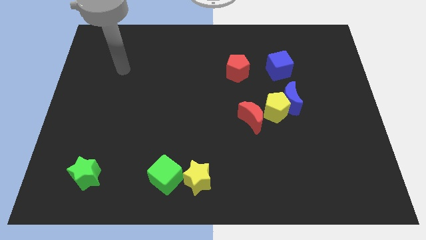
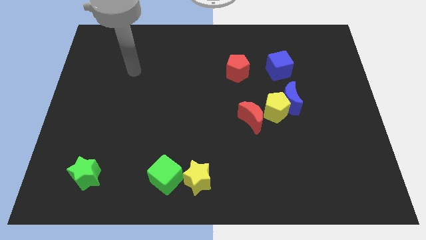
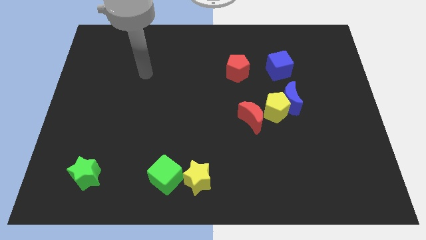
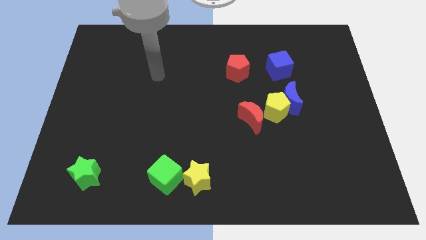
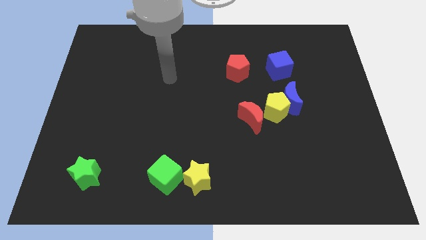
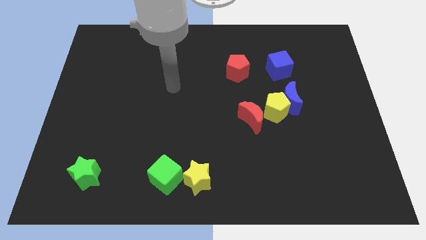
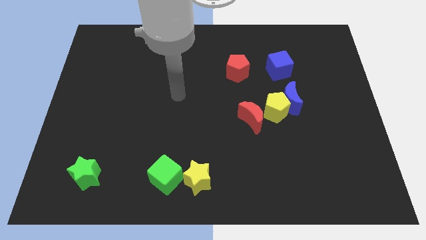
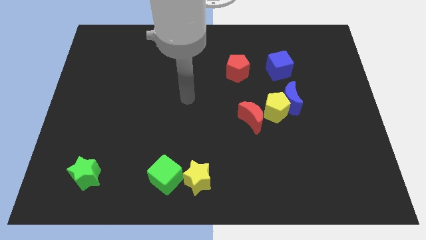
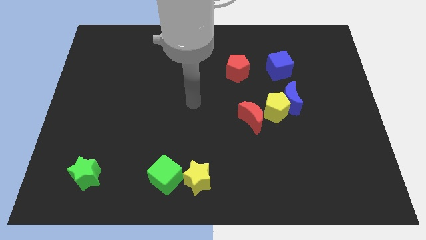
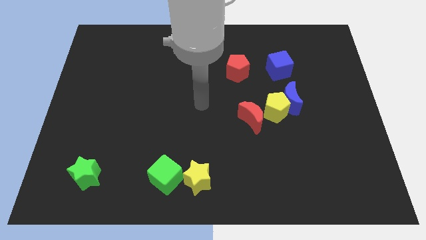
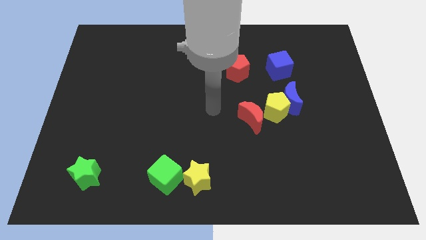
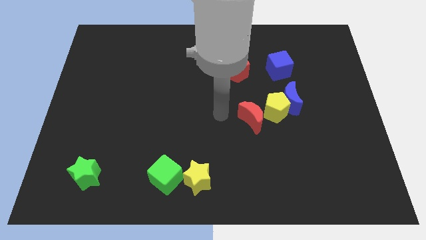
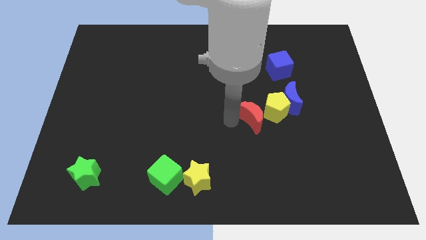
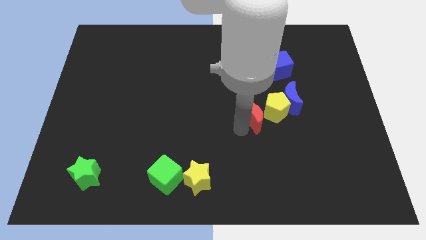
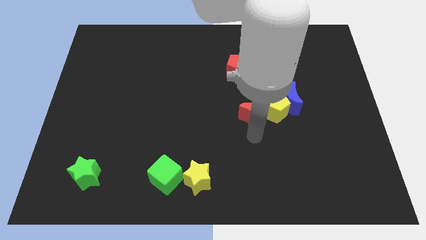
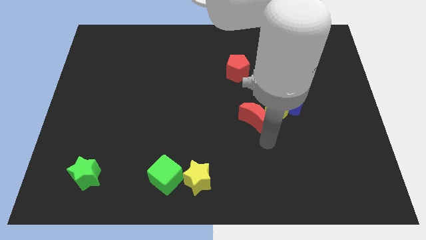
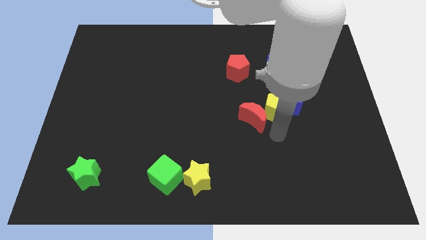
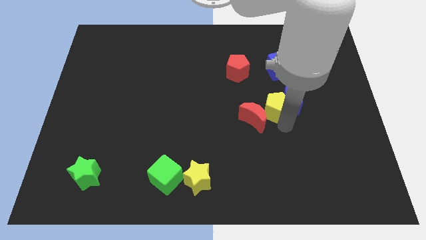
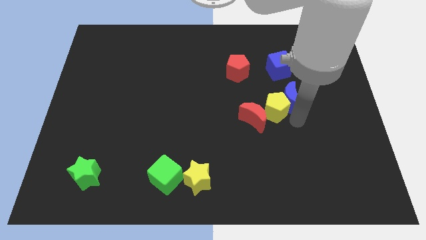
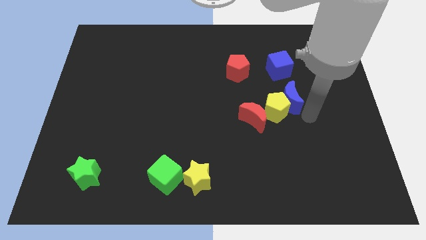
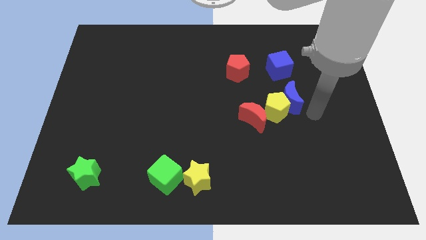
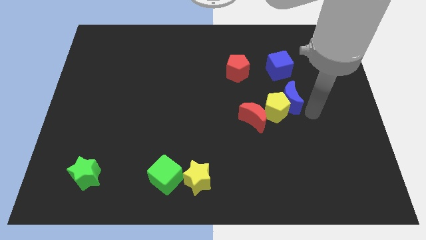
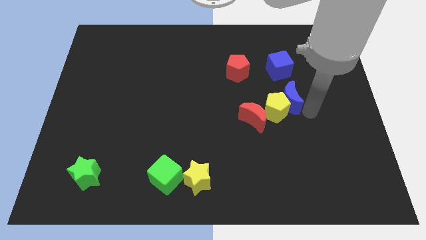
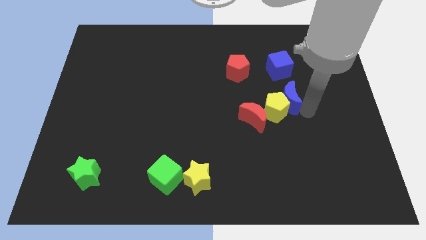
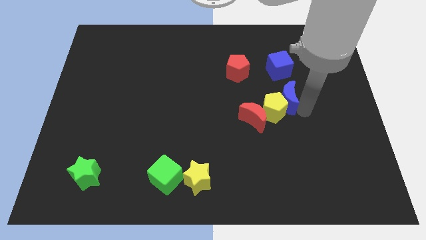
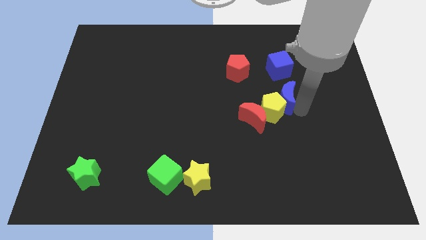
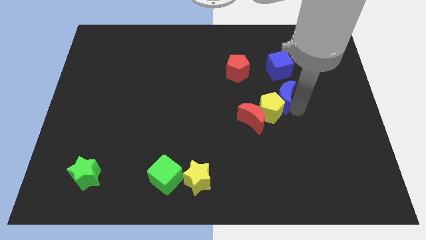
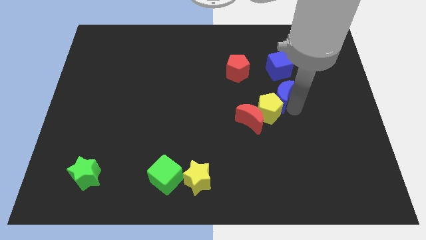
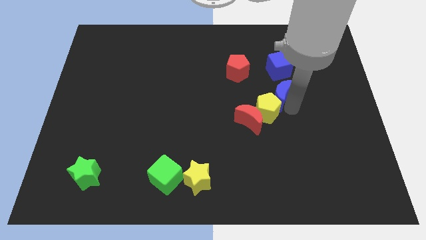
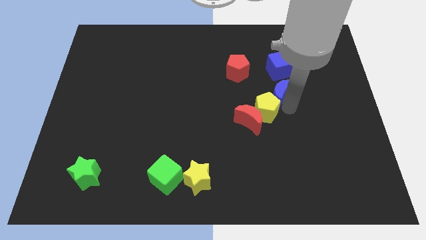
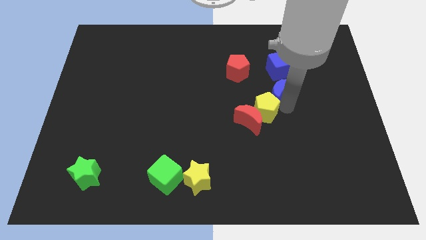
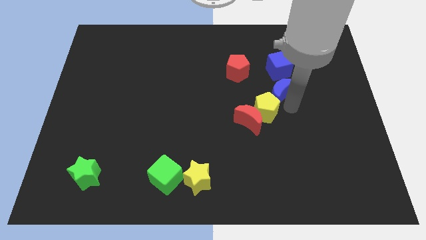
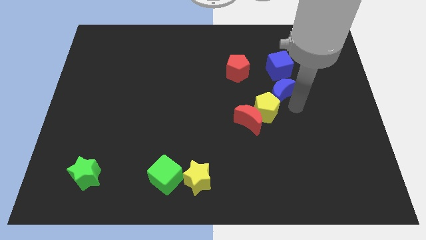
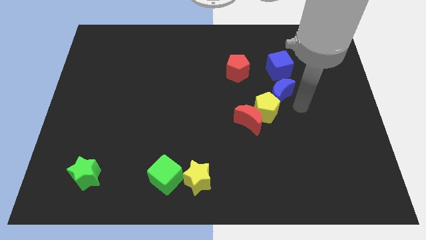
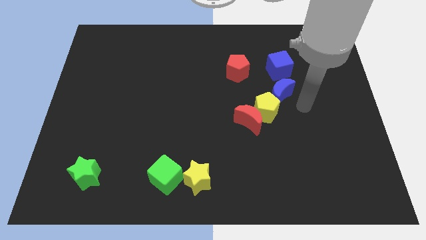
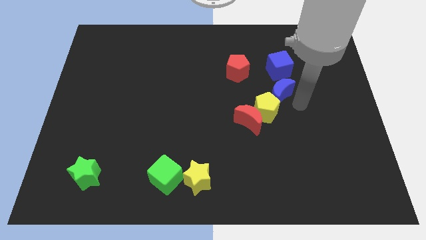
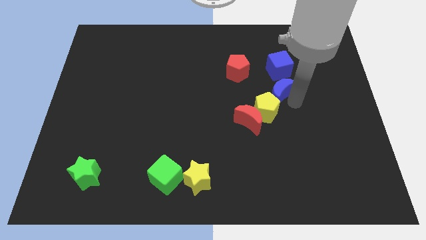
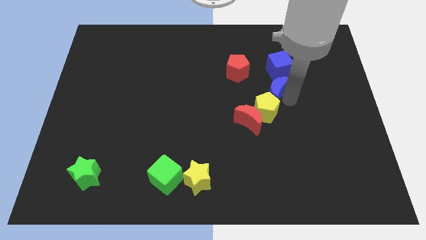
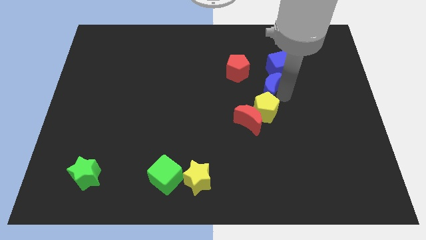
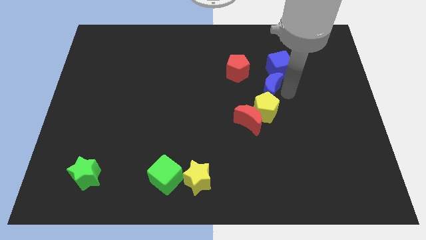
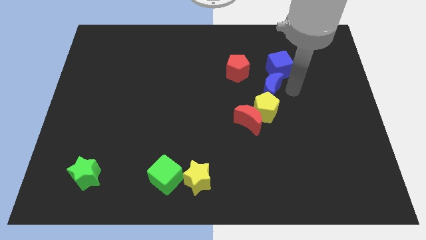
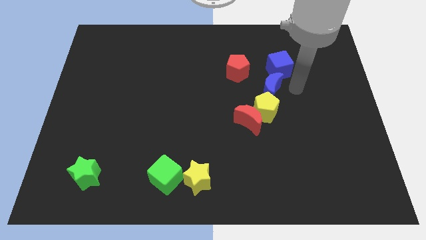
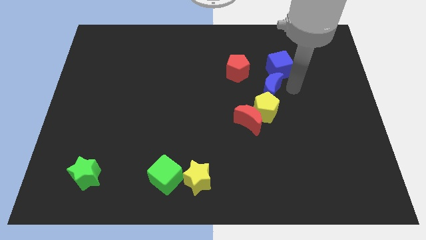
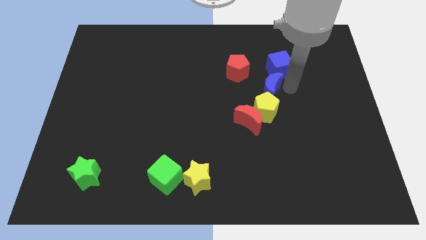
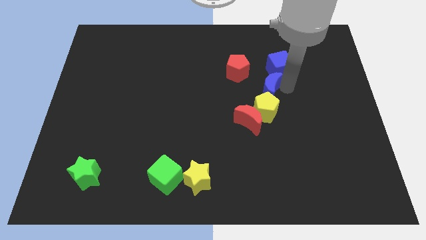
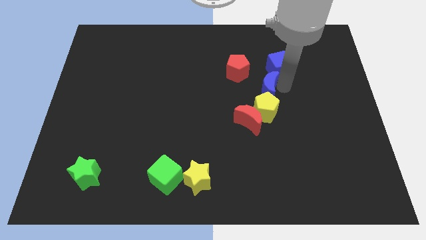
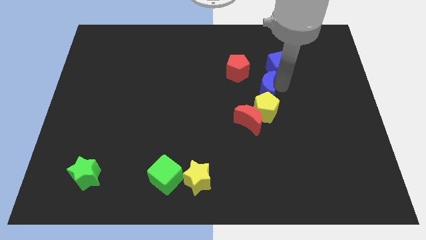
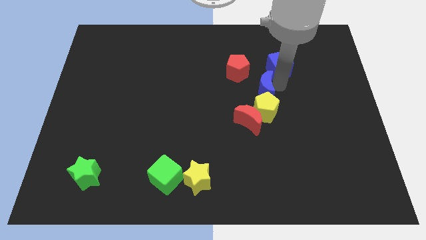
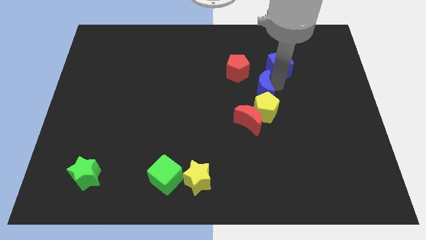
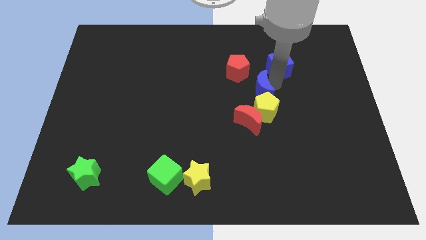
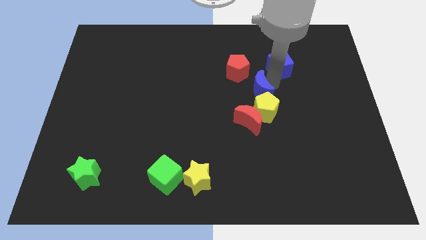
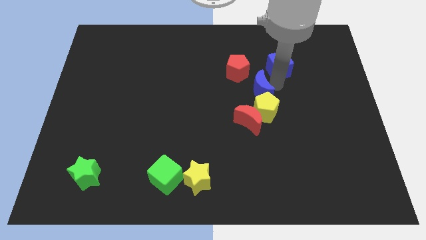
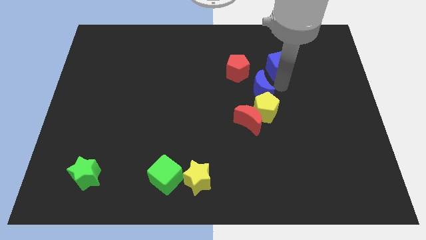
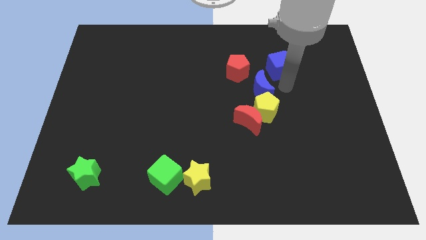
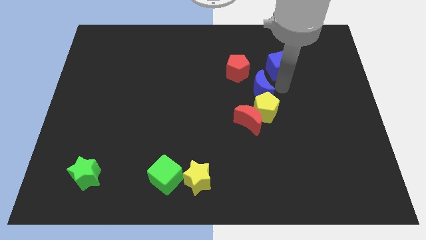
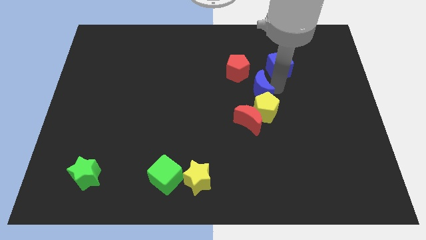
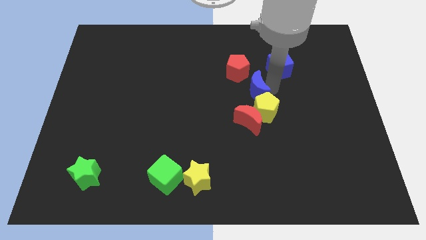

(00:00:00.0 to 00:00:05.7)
move the blue moon to the left a little

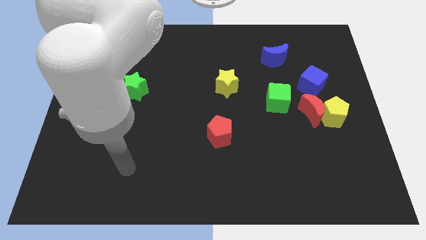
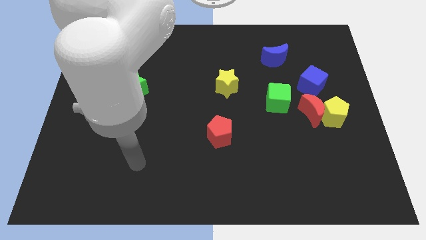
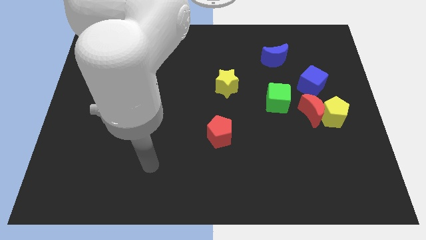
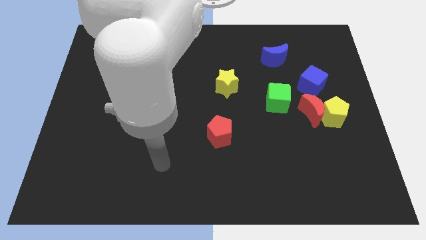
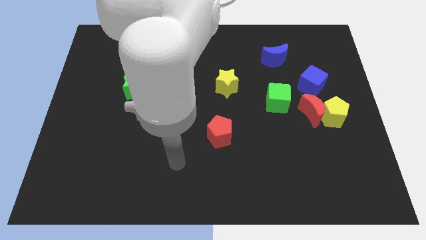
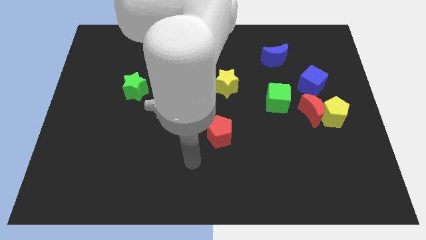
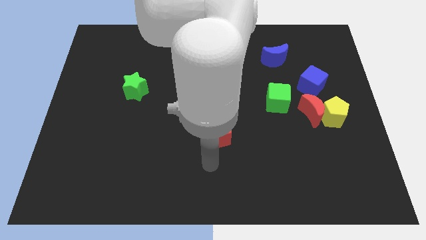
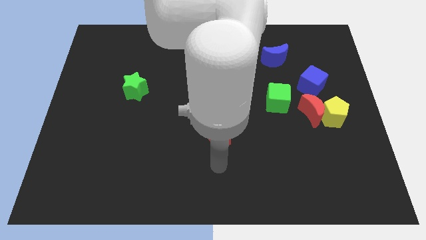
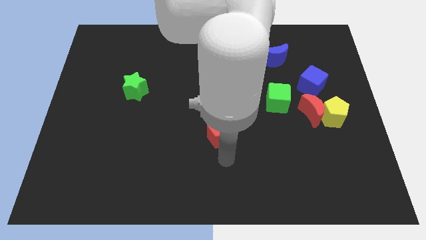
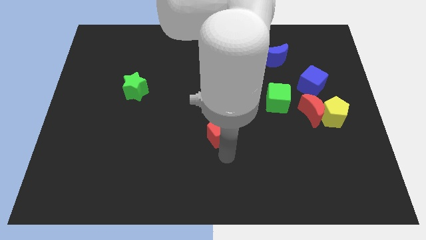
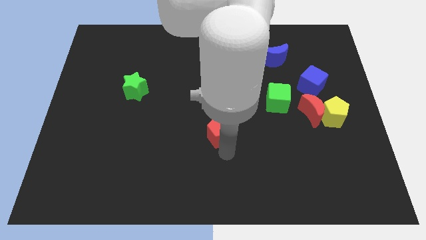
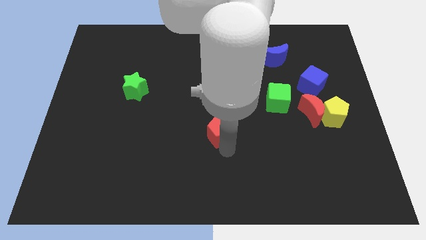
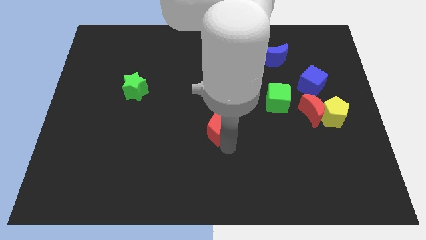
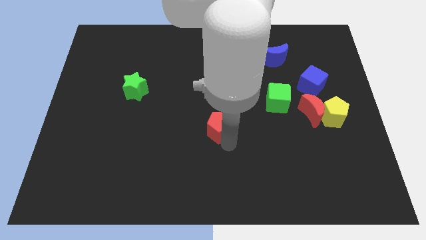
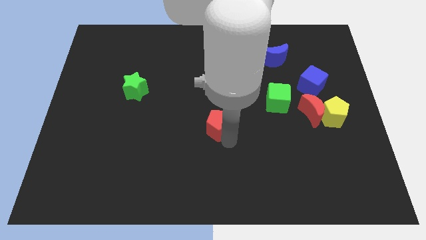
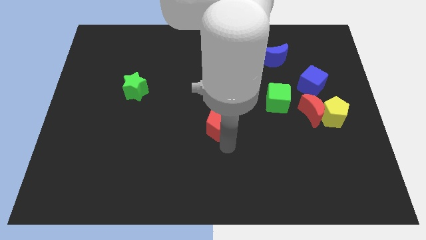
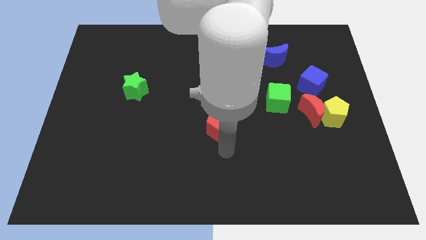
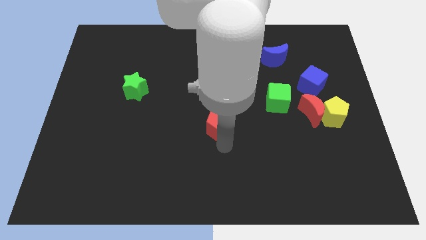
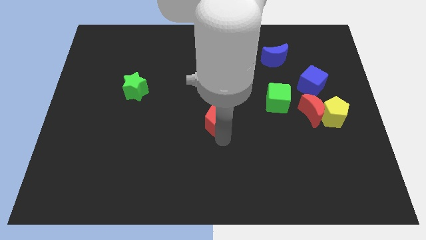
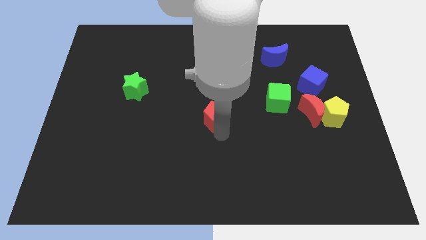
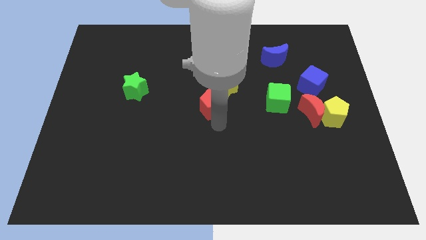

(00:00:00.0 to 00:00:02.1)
slightly push the red pentagon up

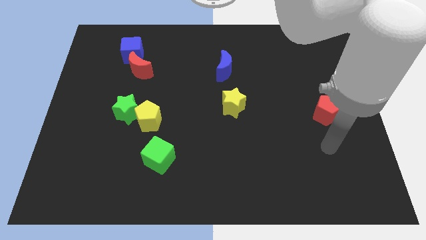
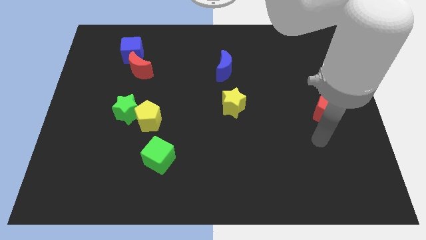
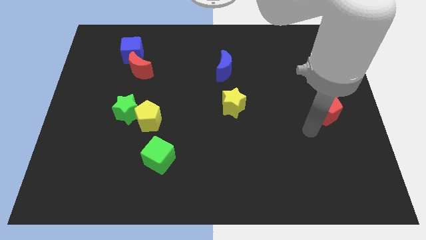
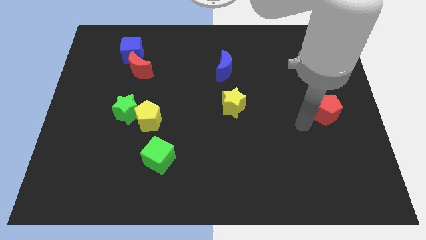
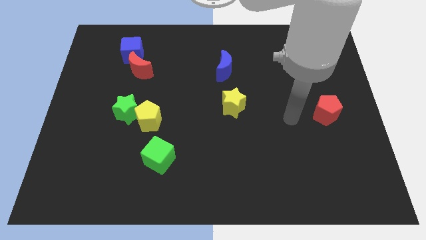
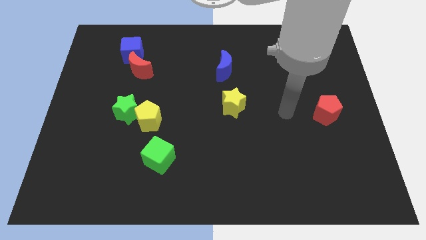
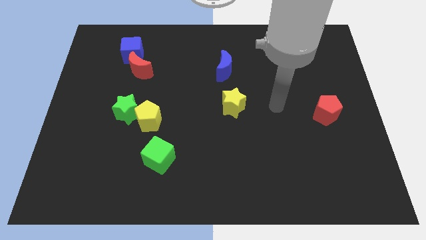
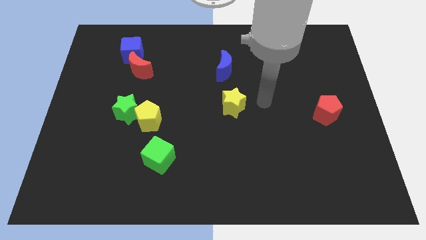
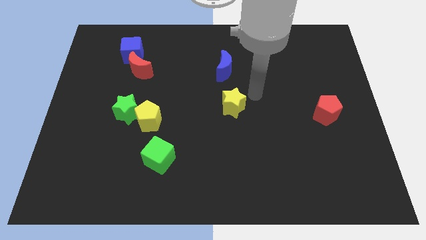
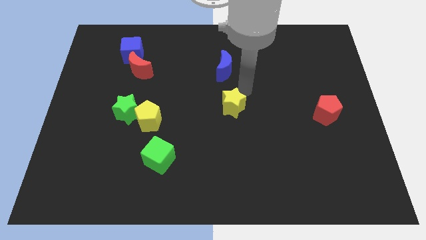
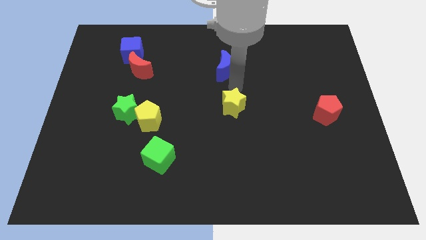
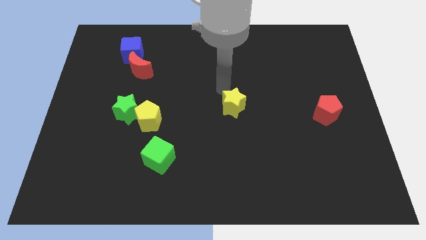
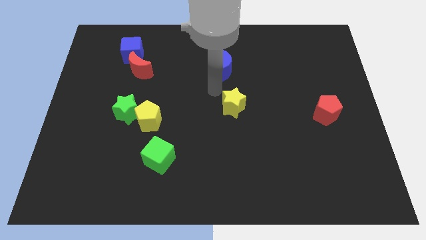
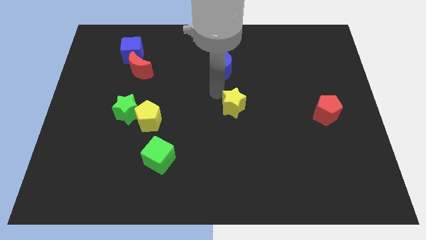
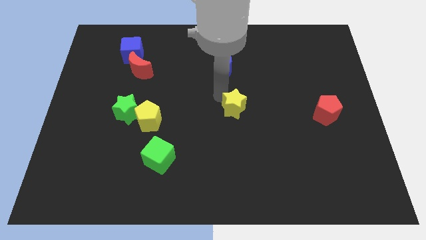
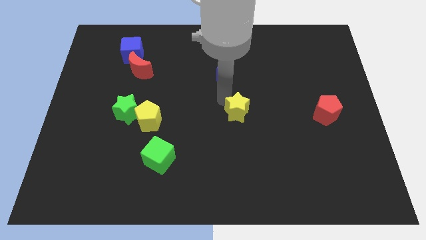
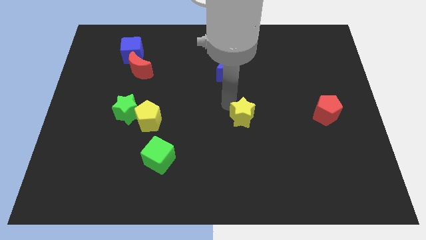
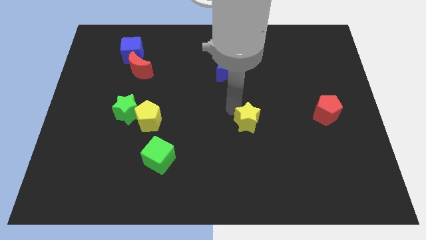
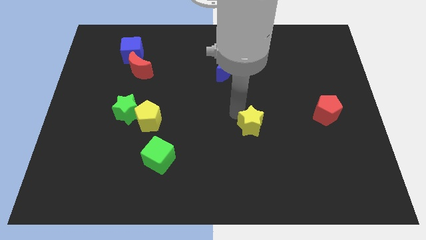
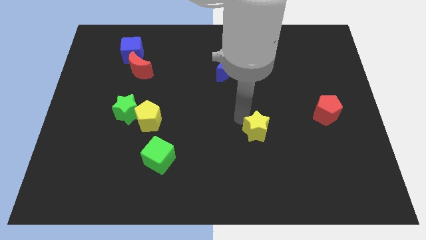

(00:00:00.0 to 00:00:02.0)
push the yellow star diagonally down and to the right slightly
